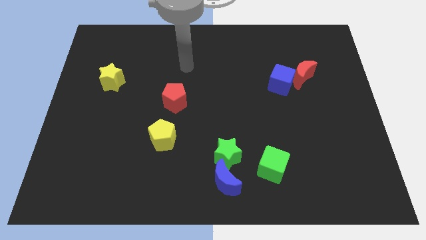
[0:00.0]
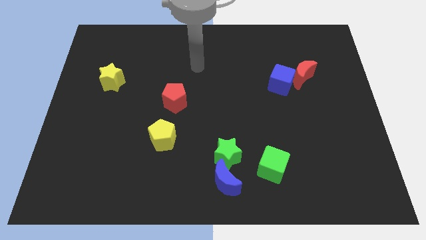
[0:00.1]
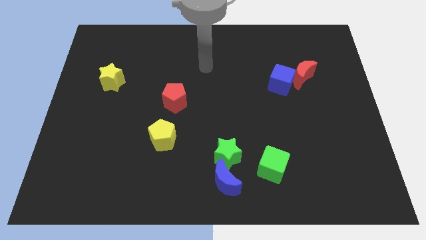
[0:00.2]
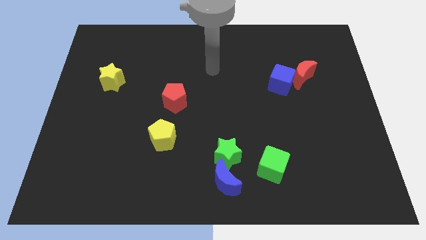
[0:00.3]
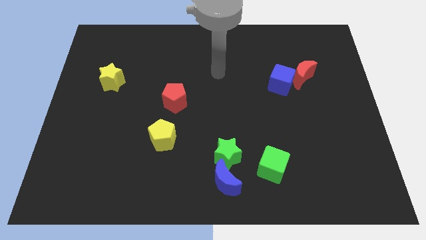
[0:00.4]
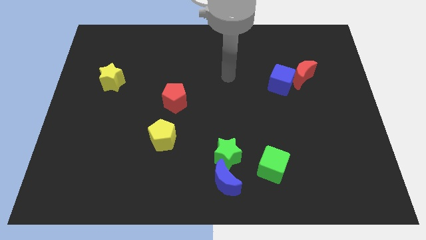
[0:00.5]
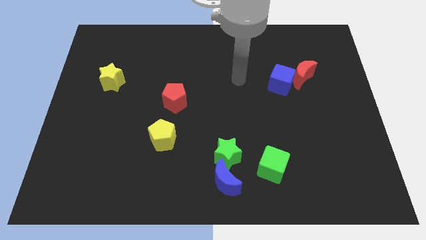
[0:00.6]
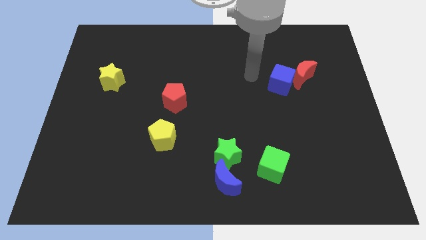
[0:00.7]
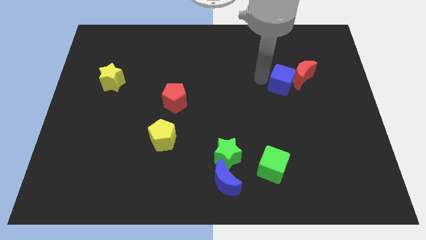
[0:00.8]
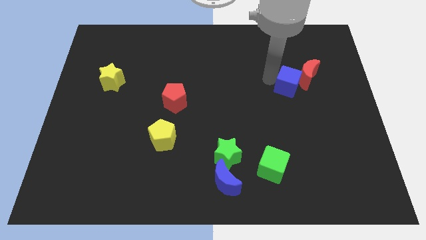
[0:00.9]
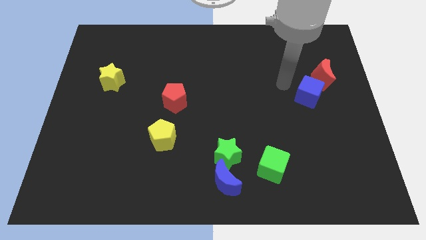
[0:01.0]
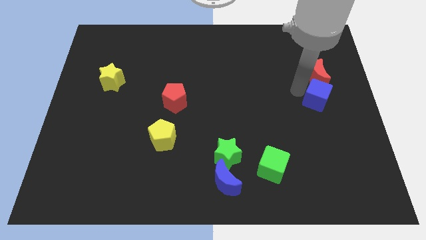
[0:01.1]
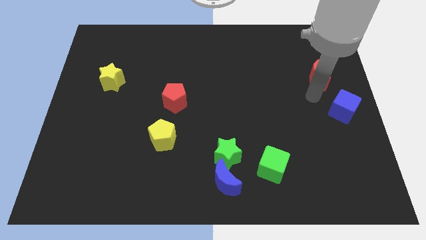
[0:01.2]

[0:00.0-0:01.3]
pull the red moon apart from the blue cube

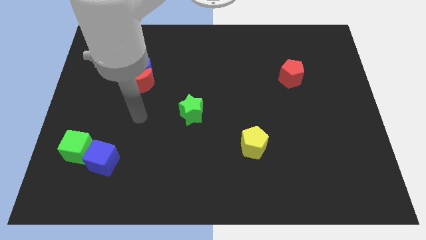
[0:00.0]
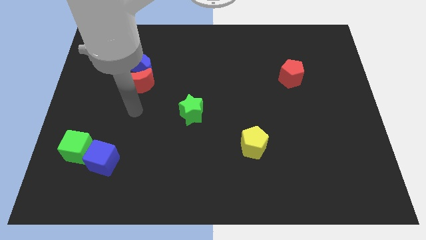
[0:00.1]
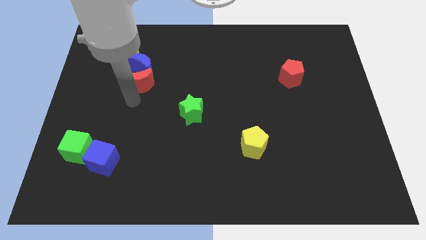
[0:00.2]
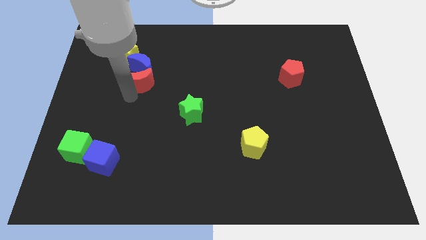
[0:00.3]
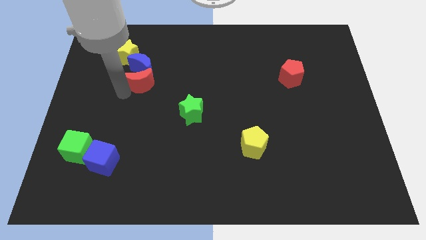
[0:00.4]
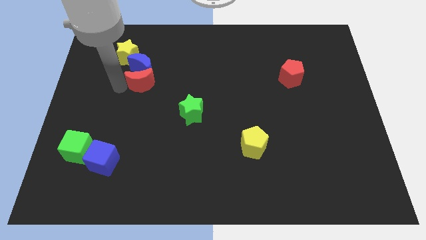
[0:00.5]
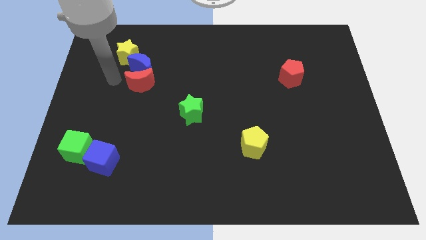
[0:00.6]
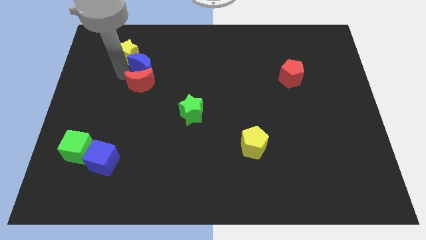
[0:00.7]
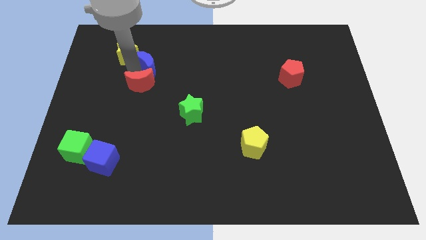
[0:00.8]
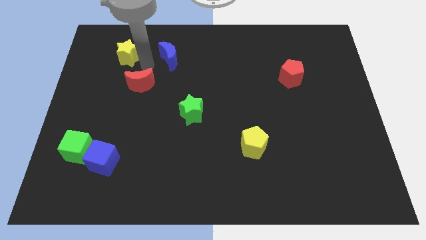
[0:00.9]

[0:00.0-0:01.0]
separate the red moon from the blue moon

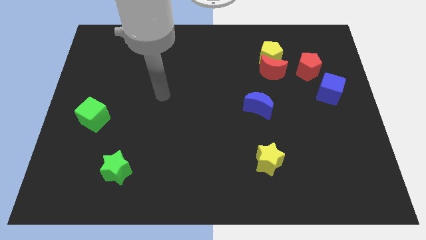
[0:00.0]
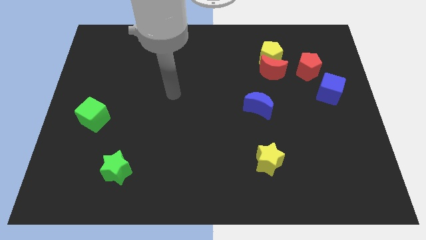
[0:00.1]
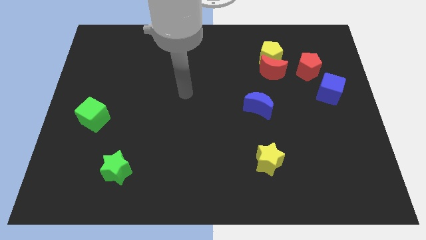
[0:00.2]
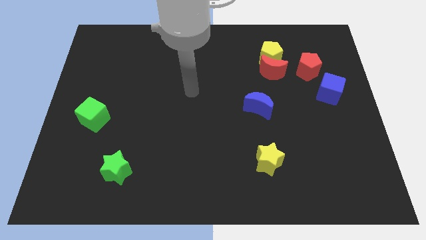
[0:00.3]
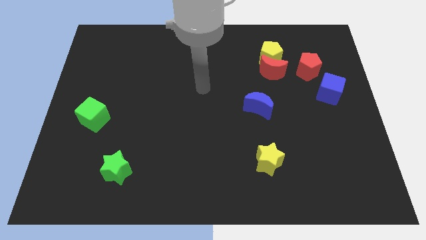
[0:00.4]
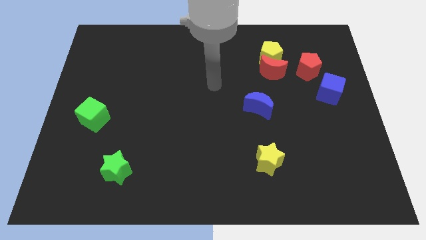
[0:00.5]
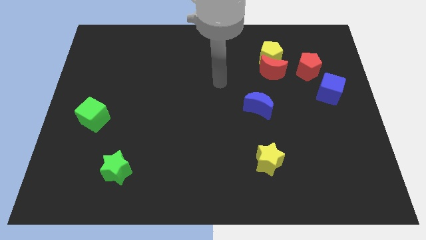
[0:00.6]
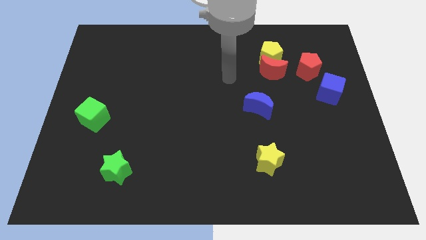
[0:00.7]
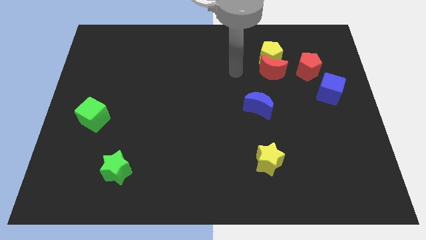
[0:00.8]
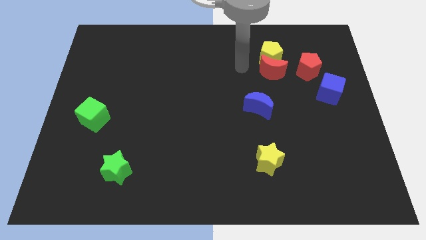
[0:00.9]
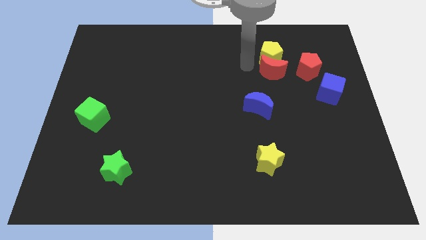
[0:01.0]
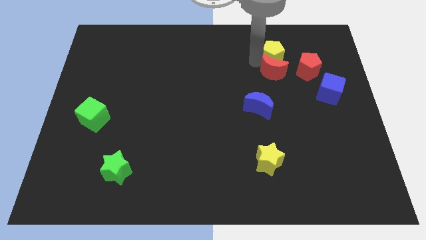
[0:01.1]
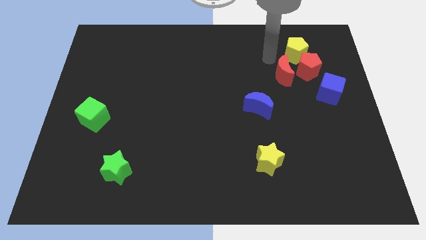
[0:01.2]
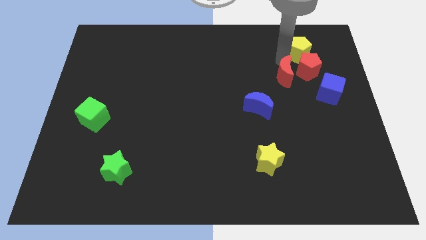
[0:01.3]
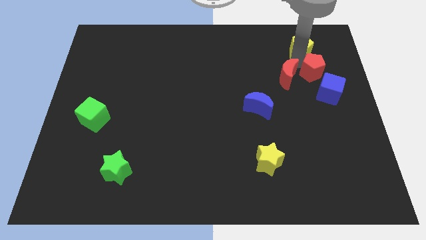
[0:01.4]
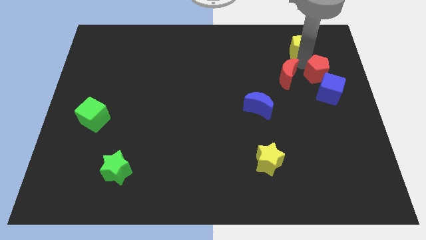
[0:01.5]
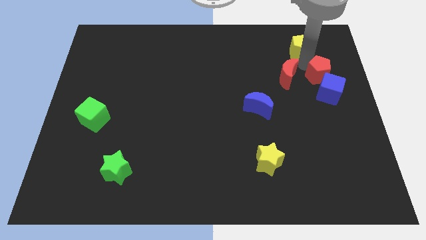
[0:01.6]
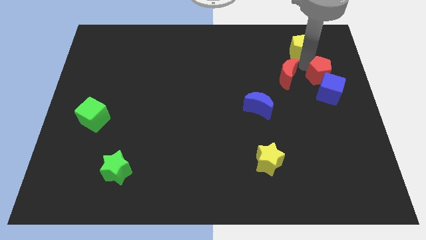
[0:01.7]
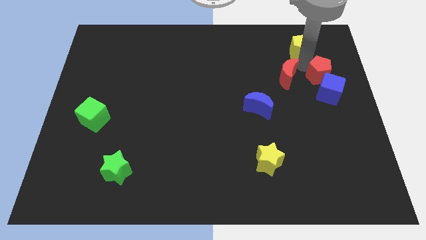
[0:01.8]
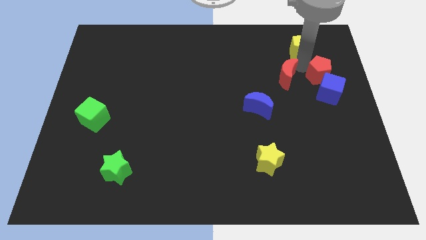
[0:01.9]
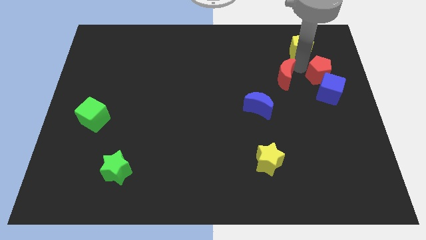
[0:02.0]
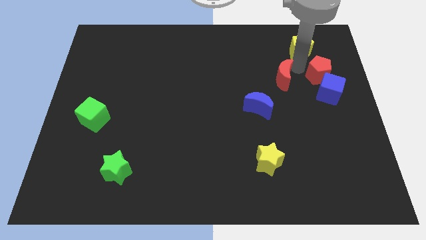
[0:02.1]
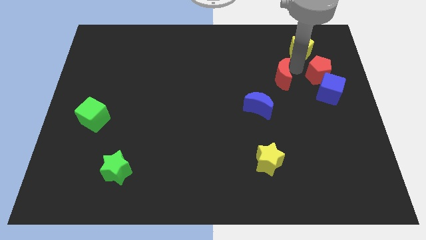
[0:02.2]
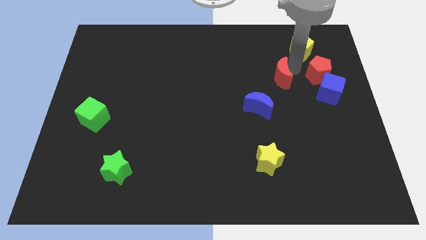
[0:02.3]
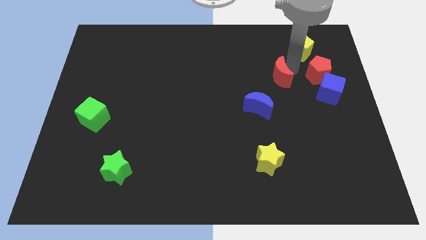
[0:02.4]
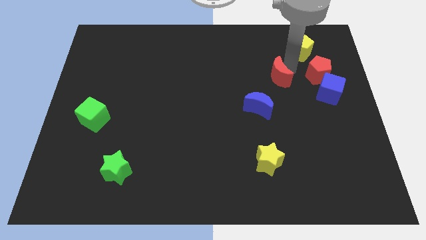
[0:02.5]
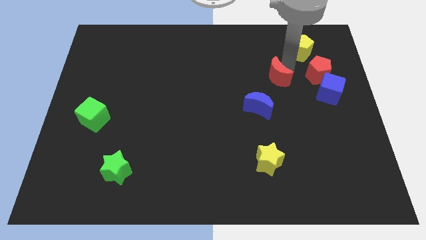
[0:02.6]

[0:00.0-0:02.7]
move the red moon away from the yellow pentagon and red pentagon

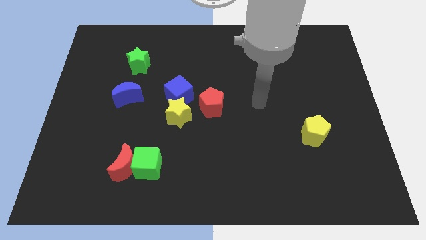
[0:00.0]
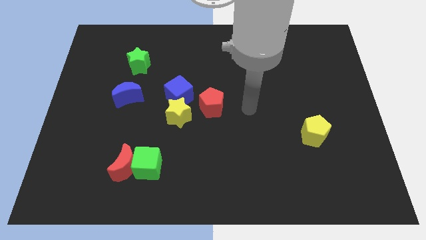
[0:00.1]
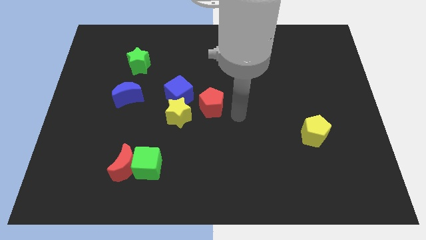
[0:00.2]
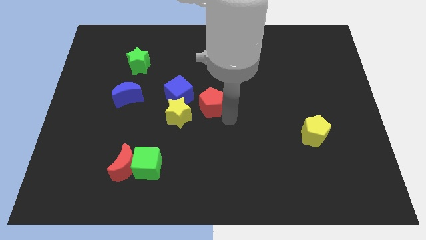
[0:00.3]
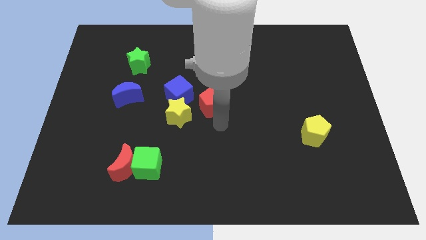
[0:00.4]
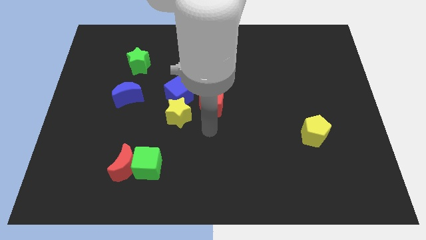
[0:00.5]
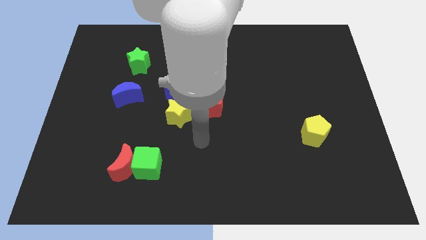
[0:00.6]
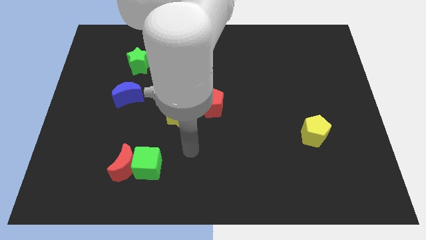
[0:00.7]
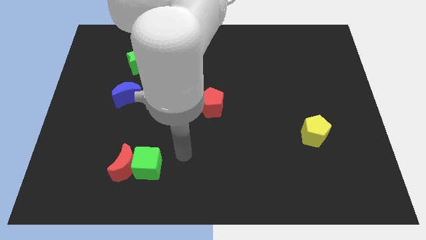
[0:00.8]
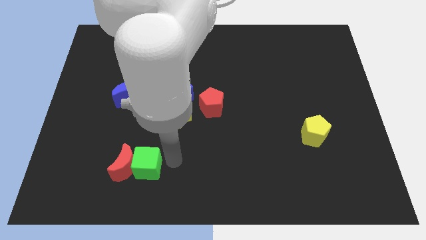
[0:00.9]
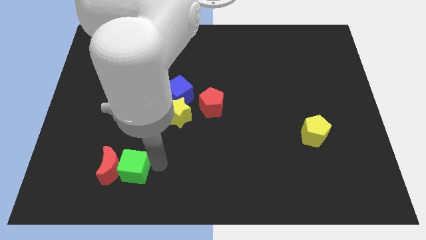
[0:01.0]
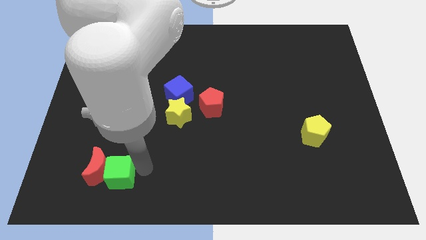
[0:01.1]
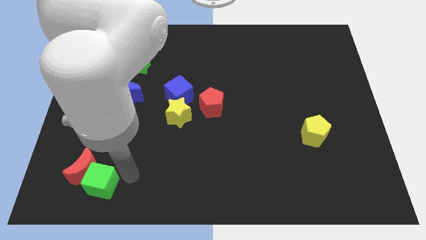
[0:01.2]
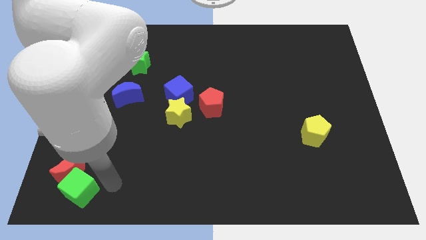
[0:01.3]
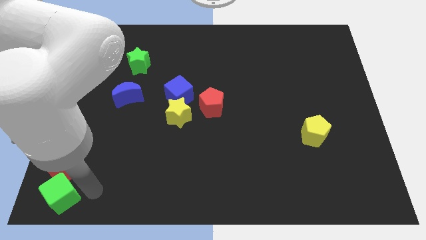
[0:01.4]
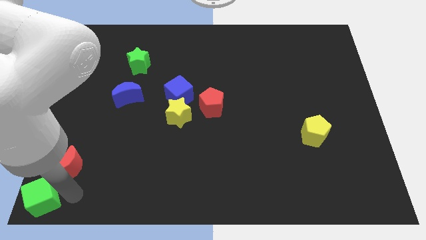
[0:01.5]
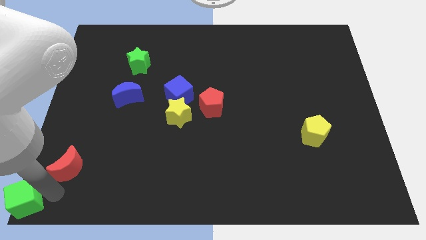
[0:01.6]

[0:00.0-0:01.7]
move the red moon away from the green cube

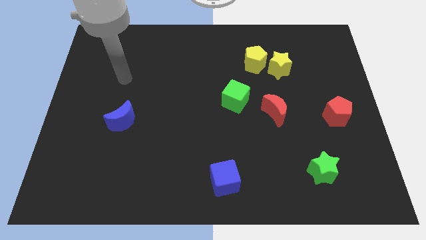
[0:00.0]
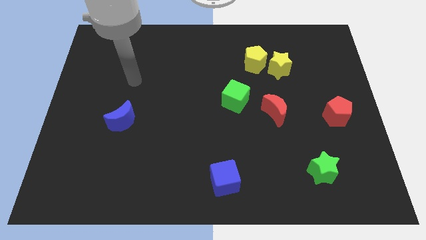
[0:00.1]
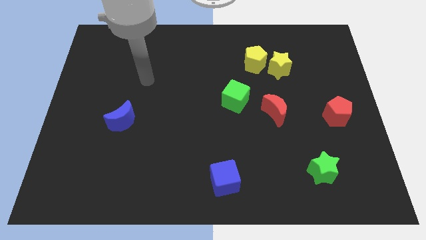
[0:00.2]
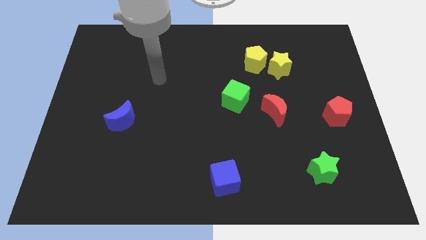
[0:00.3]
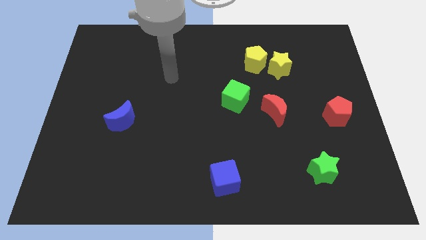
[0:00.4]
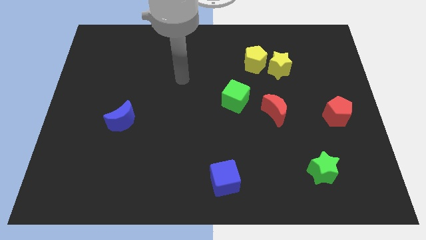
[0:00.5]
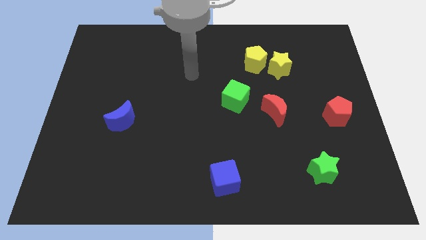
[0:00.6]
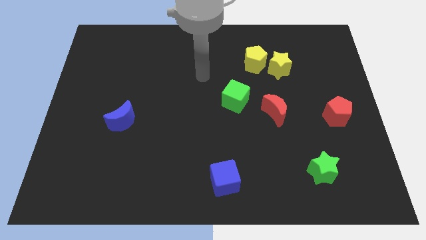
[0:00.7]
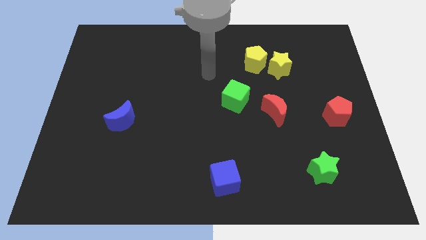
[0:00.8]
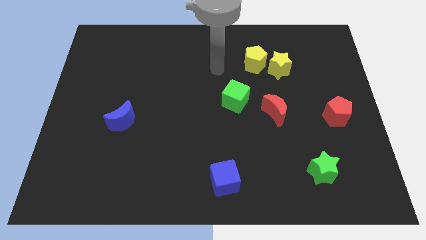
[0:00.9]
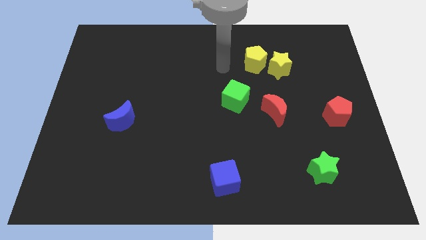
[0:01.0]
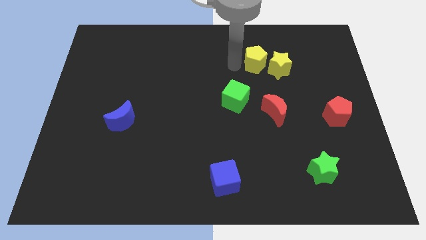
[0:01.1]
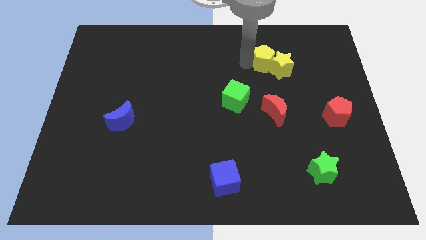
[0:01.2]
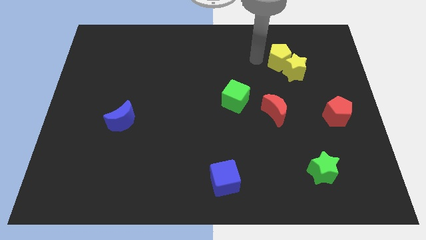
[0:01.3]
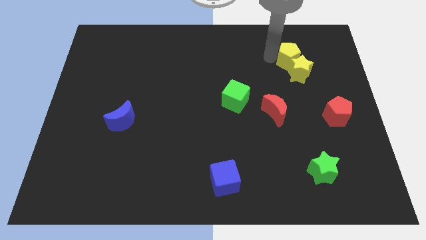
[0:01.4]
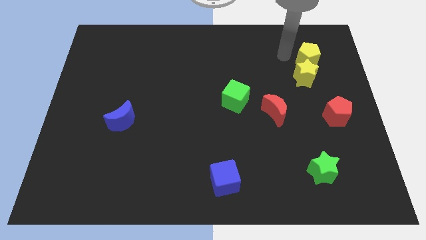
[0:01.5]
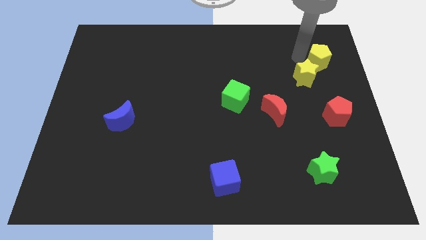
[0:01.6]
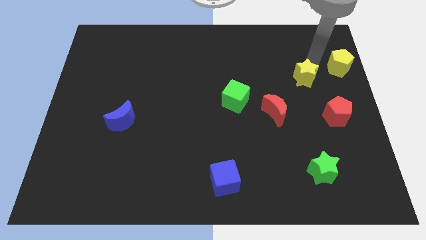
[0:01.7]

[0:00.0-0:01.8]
move the yellow star away from the yellow pentagon

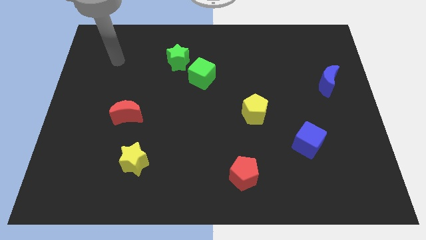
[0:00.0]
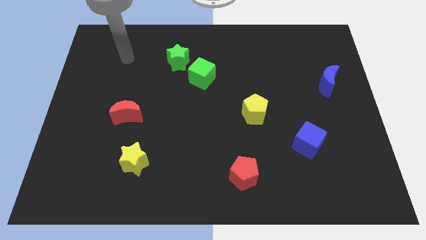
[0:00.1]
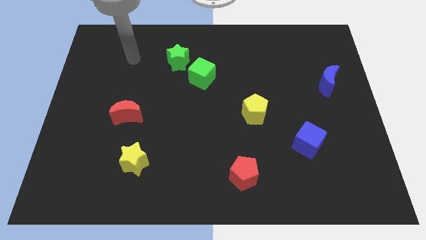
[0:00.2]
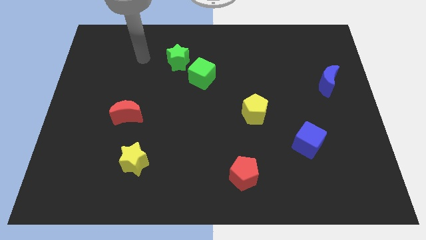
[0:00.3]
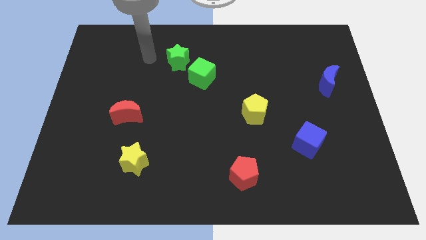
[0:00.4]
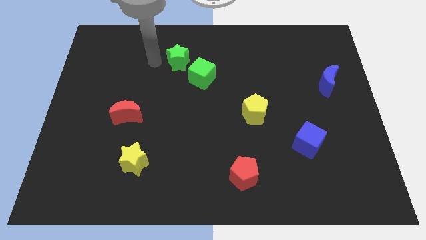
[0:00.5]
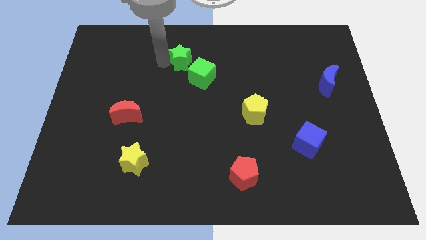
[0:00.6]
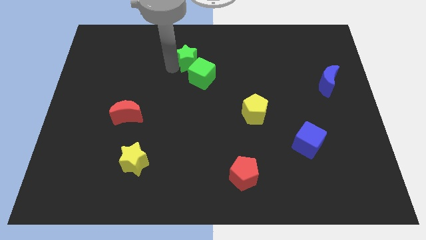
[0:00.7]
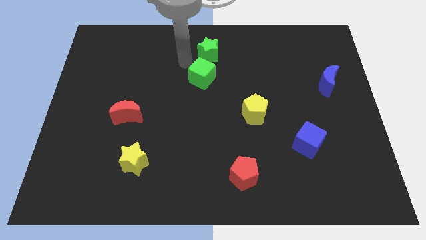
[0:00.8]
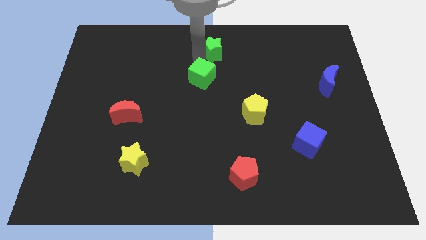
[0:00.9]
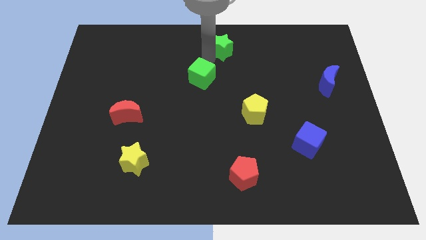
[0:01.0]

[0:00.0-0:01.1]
move the green cube away from the green star
